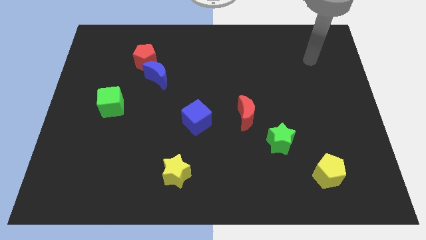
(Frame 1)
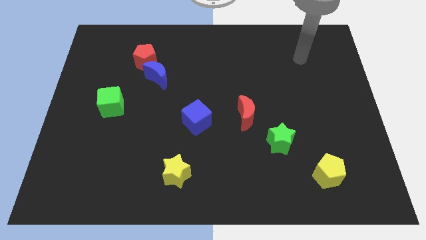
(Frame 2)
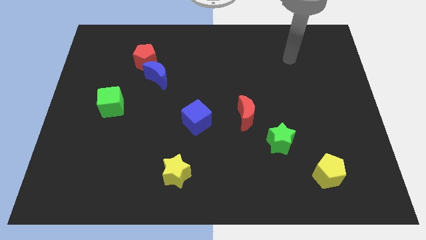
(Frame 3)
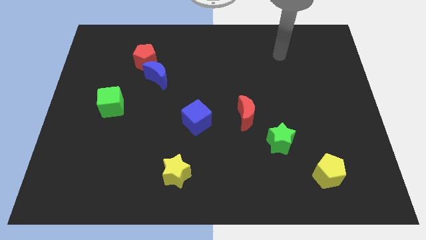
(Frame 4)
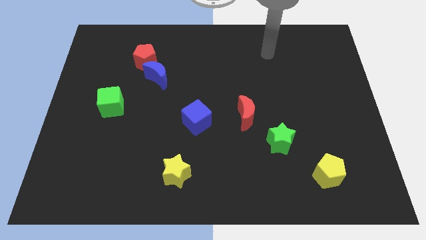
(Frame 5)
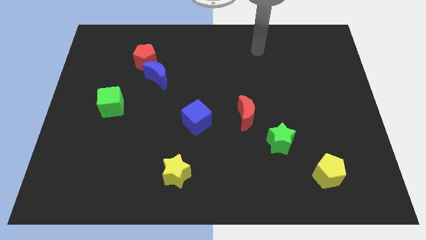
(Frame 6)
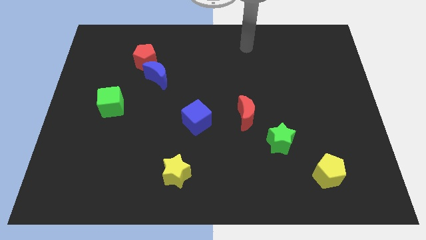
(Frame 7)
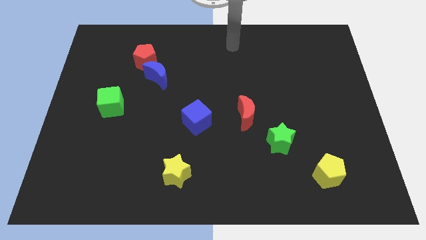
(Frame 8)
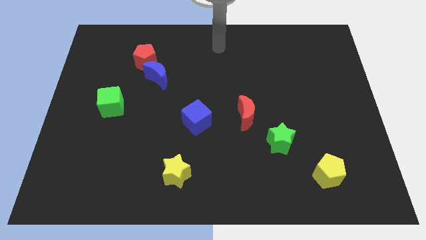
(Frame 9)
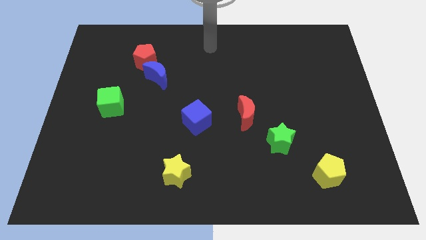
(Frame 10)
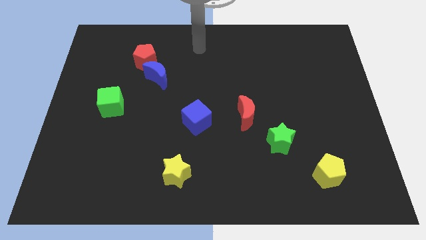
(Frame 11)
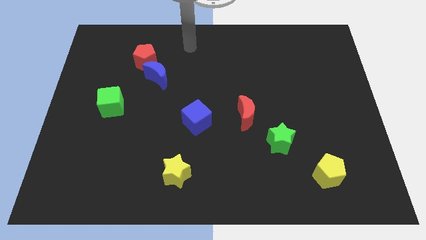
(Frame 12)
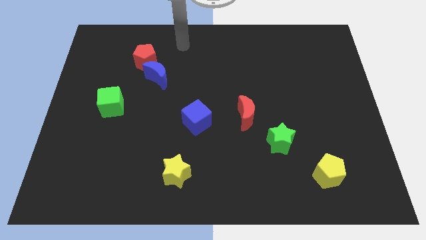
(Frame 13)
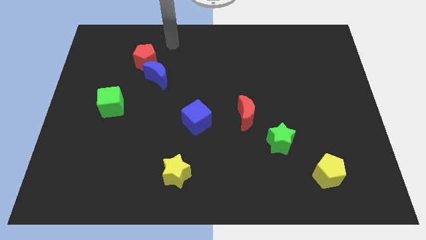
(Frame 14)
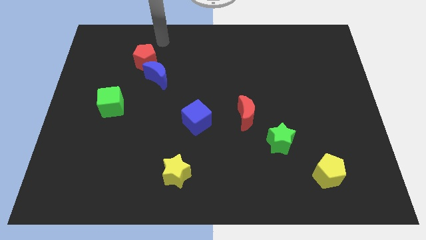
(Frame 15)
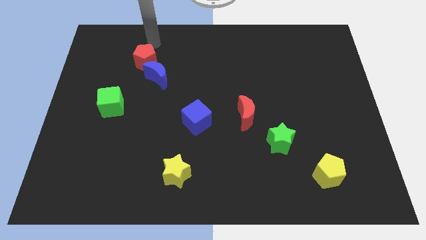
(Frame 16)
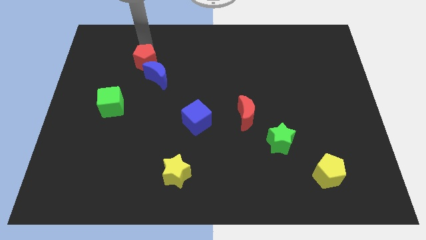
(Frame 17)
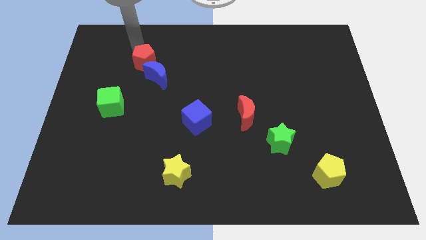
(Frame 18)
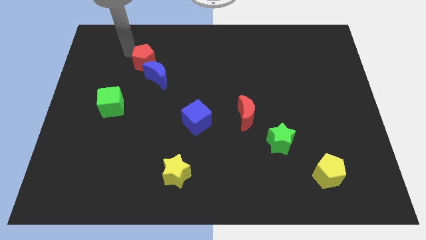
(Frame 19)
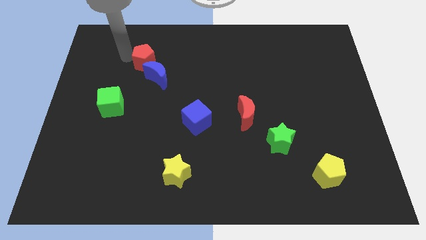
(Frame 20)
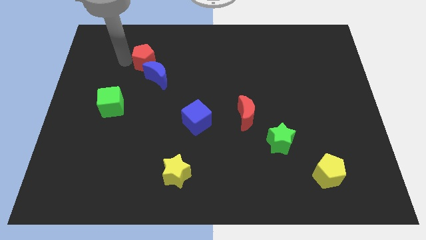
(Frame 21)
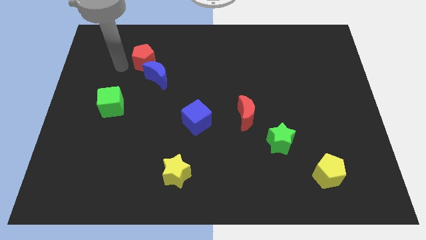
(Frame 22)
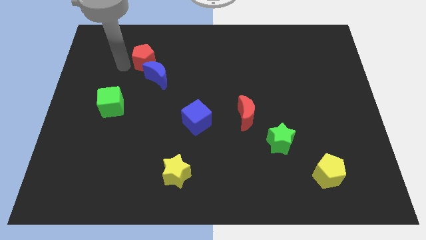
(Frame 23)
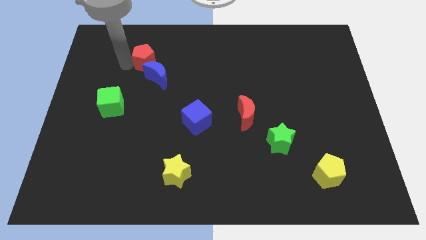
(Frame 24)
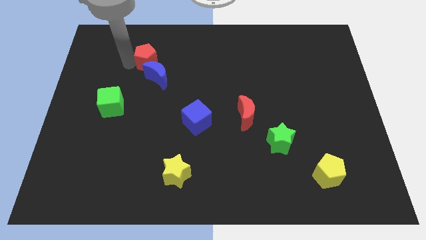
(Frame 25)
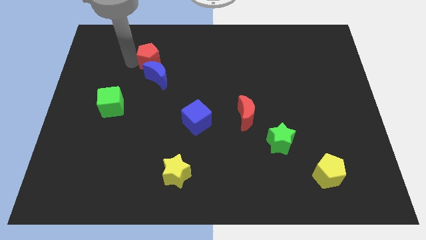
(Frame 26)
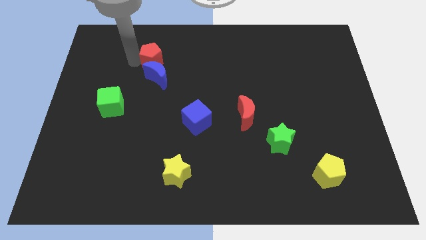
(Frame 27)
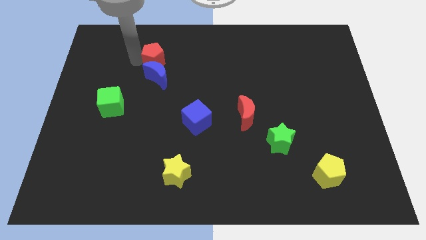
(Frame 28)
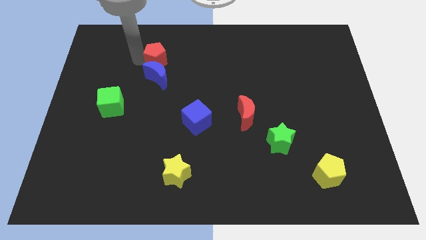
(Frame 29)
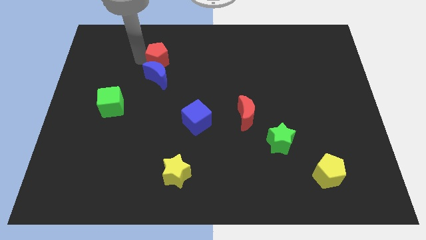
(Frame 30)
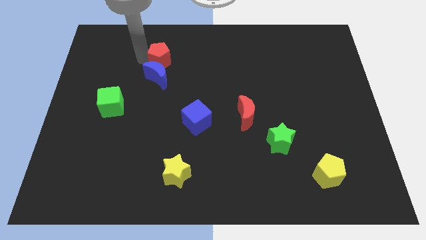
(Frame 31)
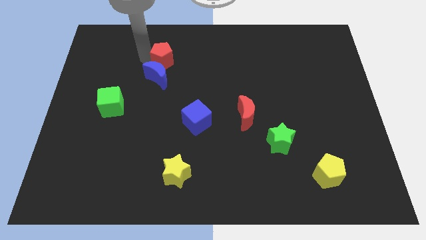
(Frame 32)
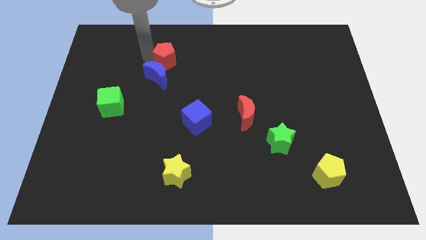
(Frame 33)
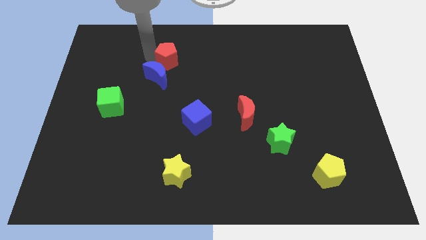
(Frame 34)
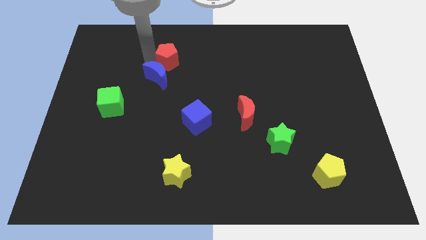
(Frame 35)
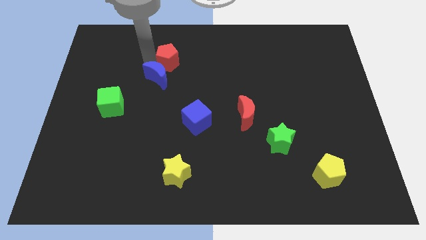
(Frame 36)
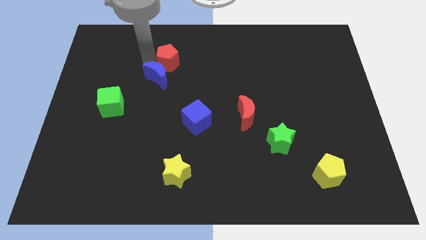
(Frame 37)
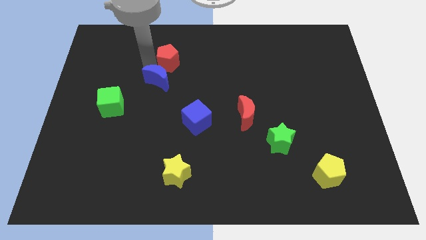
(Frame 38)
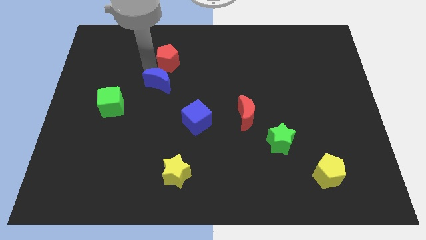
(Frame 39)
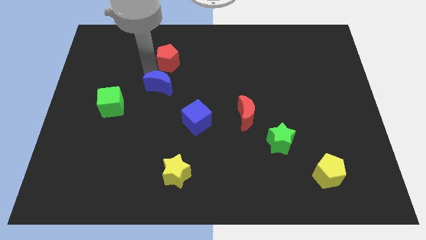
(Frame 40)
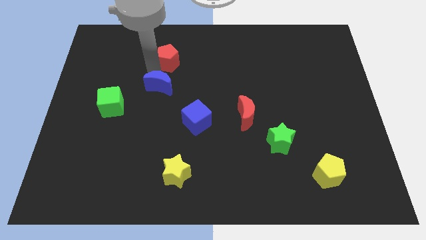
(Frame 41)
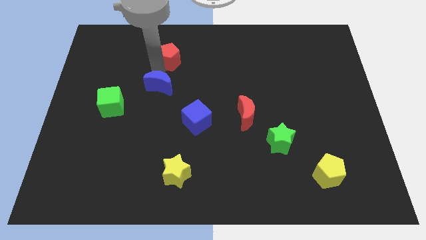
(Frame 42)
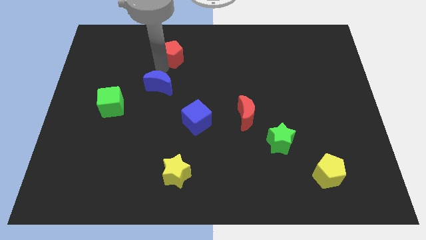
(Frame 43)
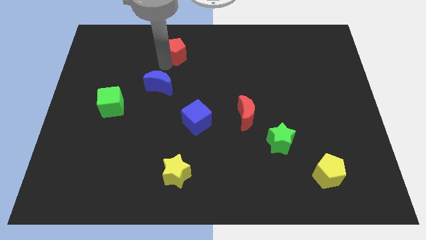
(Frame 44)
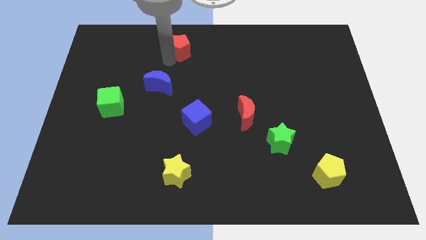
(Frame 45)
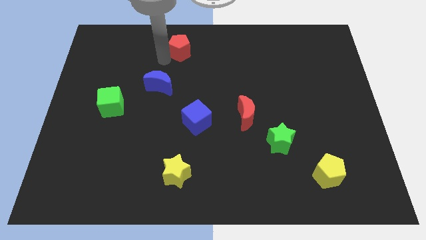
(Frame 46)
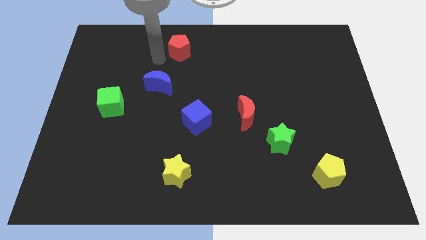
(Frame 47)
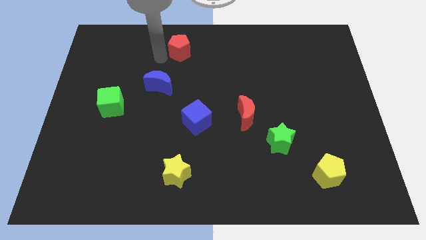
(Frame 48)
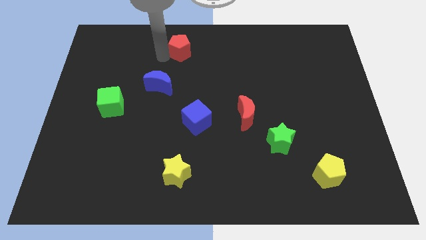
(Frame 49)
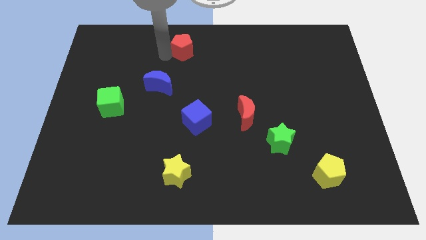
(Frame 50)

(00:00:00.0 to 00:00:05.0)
push the red pentagon to the top

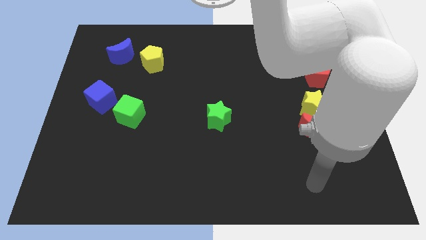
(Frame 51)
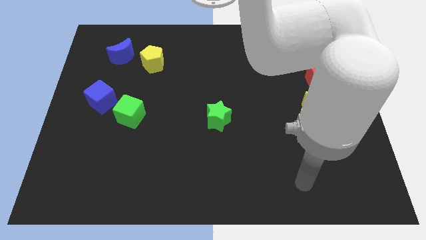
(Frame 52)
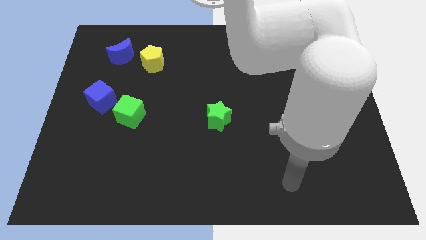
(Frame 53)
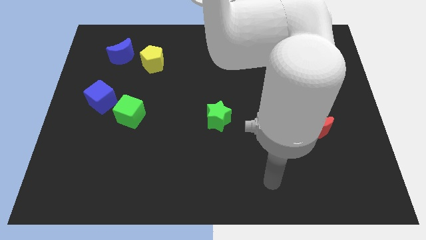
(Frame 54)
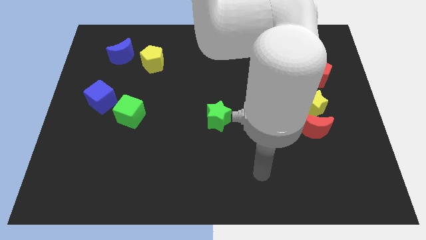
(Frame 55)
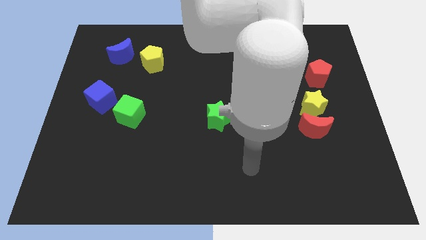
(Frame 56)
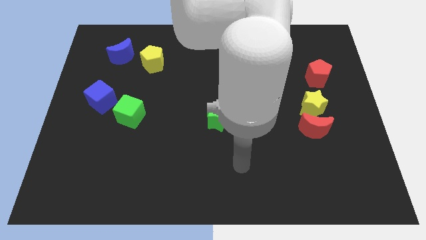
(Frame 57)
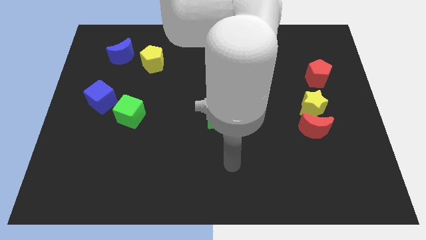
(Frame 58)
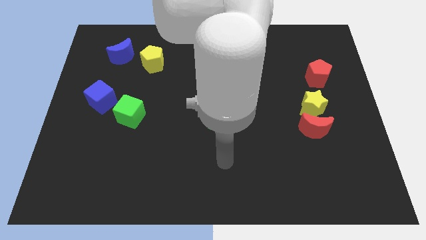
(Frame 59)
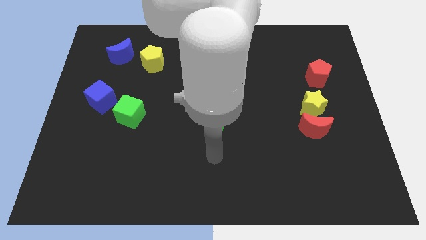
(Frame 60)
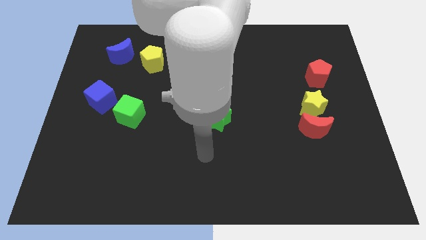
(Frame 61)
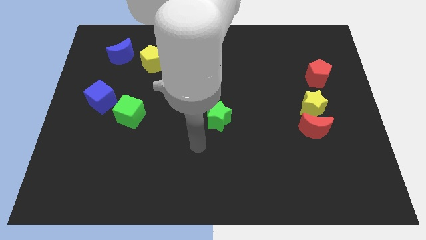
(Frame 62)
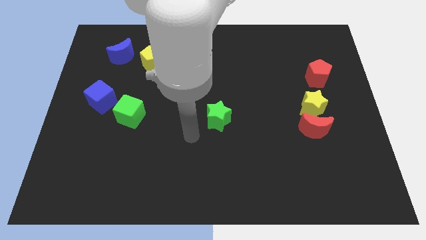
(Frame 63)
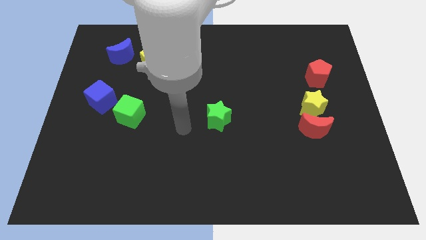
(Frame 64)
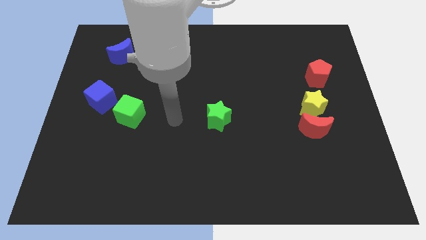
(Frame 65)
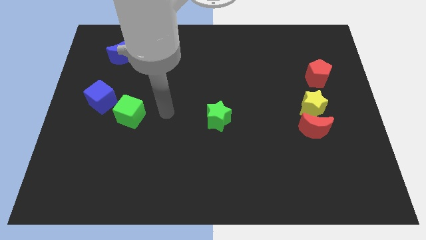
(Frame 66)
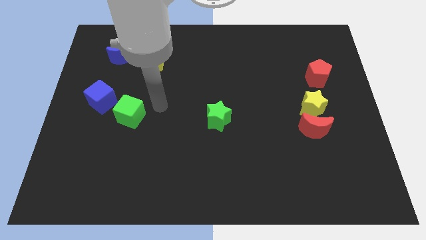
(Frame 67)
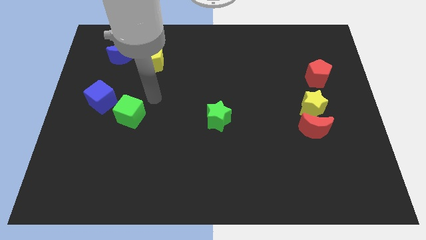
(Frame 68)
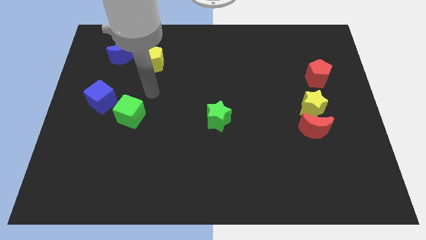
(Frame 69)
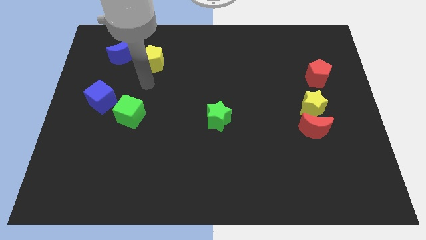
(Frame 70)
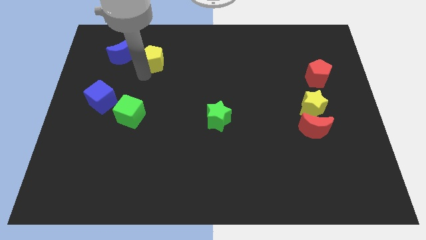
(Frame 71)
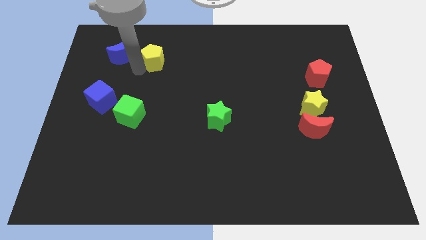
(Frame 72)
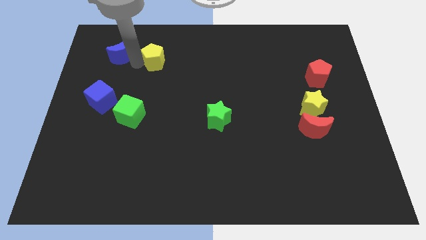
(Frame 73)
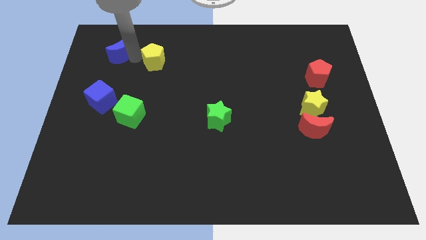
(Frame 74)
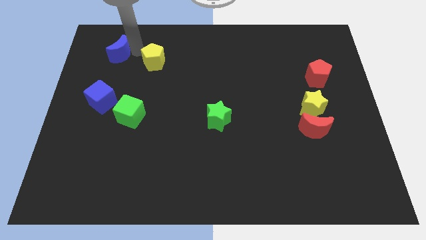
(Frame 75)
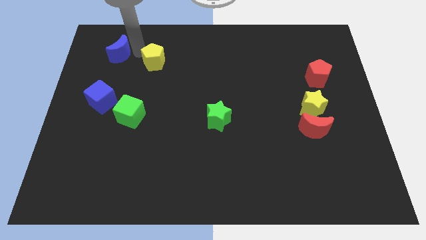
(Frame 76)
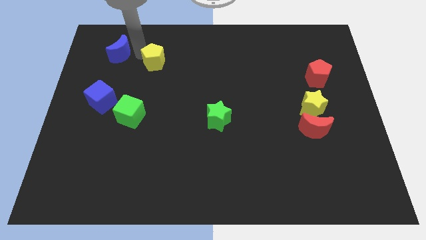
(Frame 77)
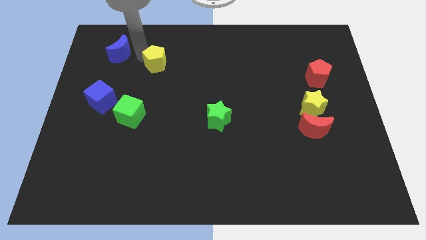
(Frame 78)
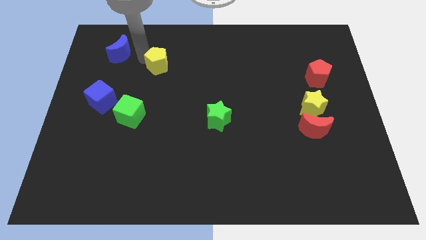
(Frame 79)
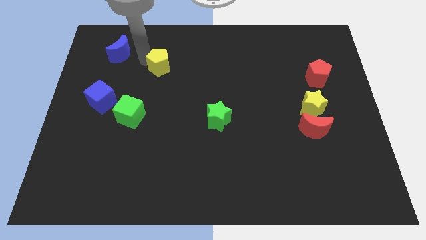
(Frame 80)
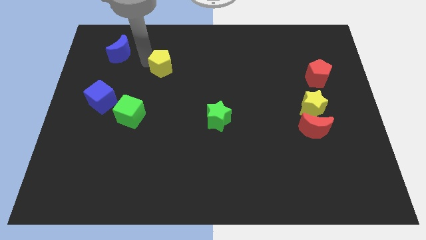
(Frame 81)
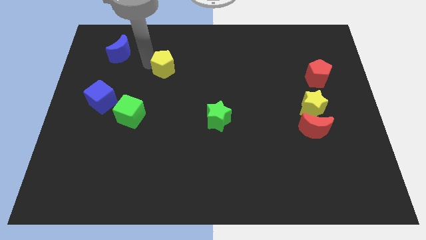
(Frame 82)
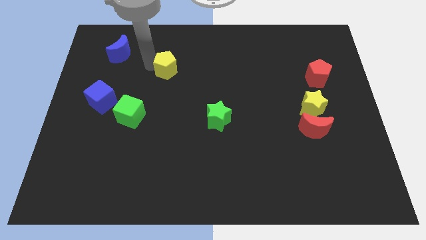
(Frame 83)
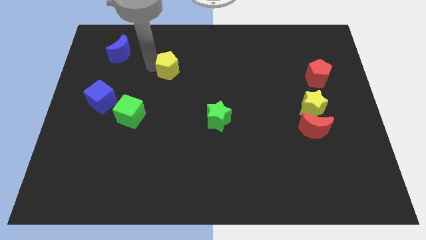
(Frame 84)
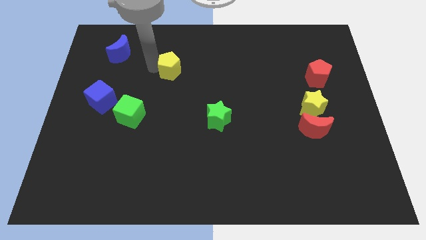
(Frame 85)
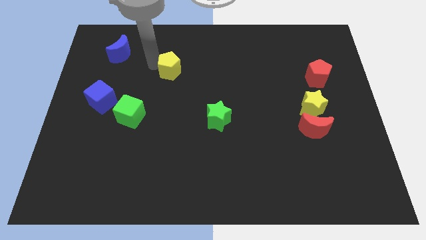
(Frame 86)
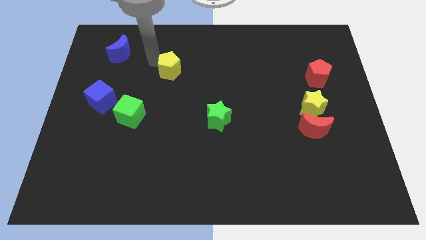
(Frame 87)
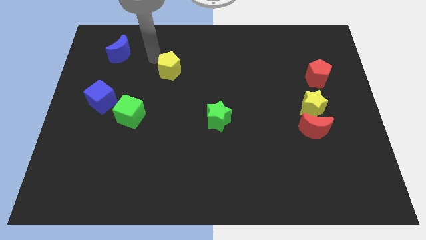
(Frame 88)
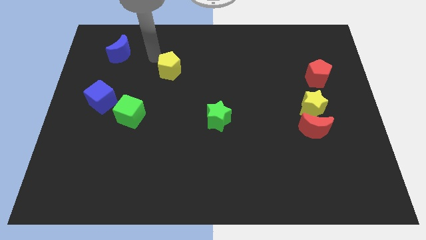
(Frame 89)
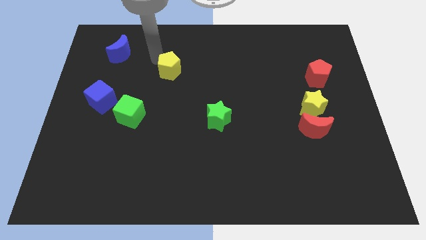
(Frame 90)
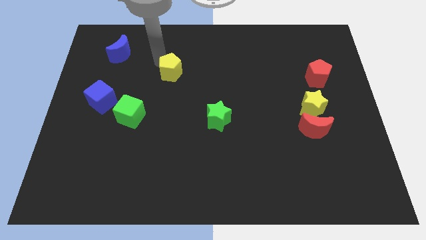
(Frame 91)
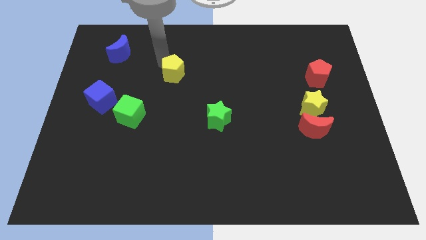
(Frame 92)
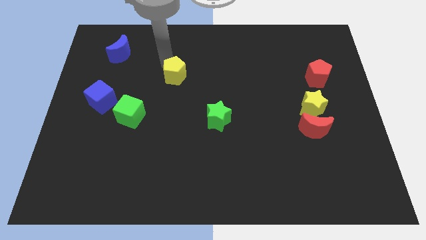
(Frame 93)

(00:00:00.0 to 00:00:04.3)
slide the yellow pentagon to the middle
